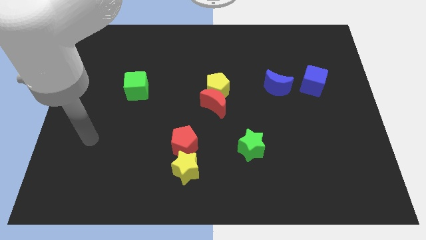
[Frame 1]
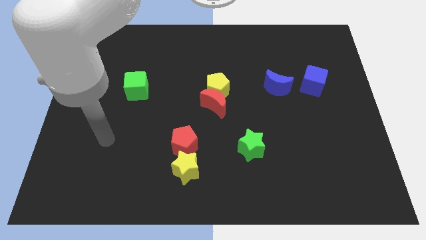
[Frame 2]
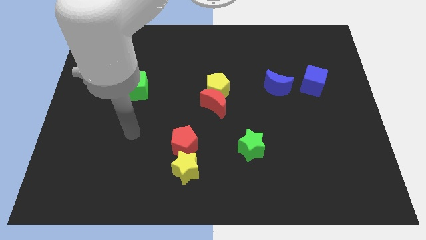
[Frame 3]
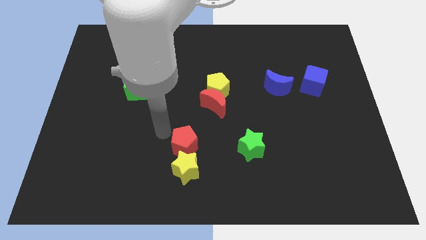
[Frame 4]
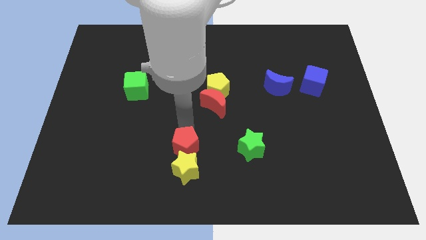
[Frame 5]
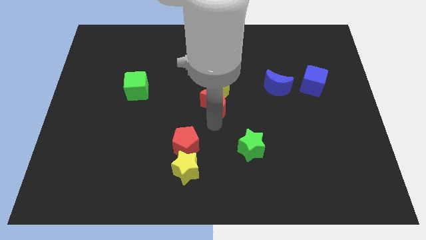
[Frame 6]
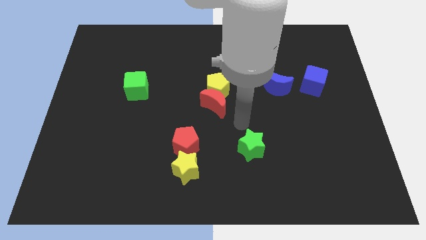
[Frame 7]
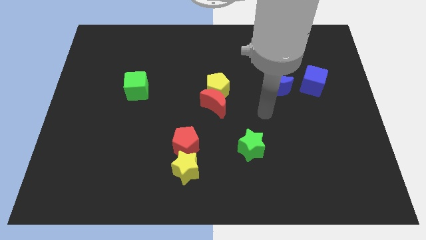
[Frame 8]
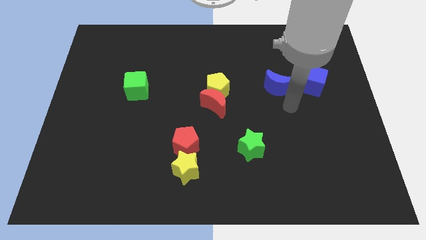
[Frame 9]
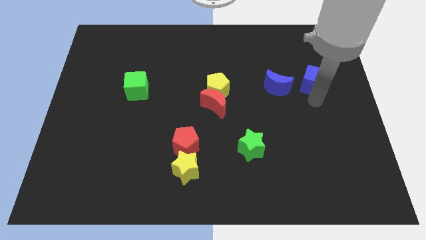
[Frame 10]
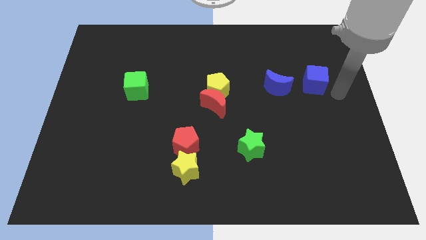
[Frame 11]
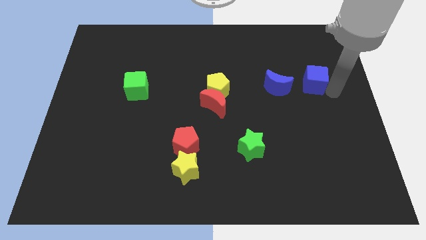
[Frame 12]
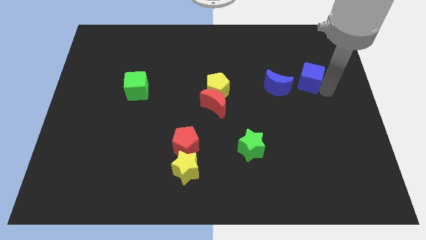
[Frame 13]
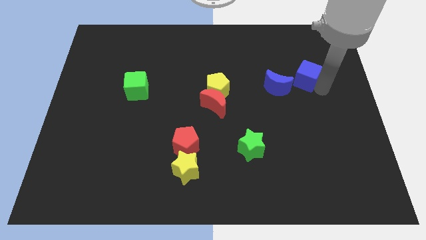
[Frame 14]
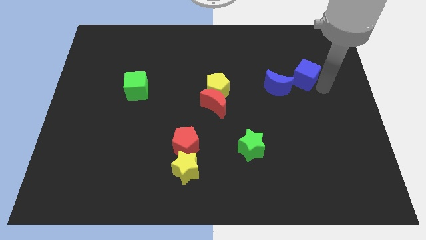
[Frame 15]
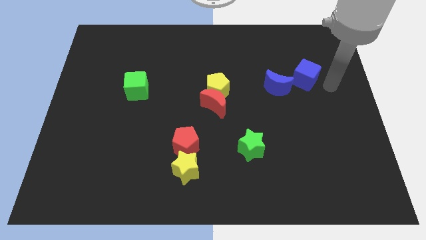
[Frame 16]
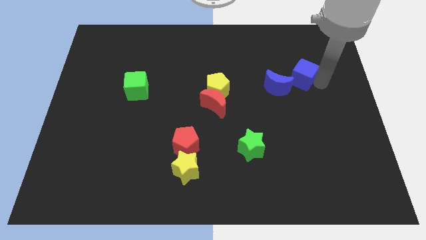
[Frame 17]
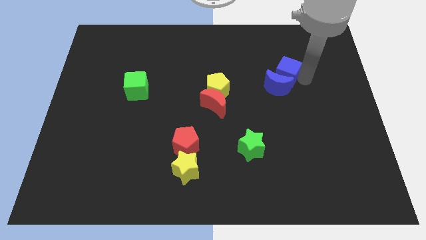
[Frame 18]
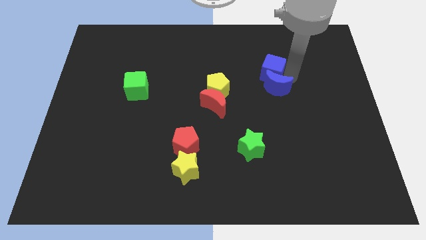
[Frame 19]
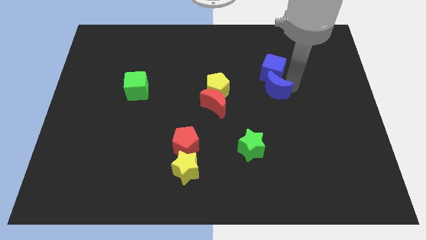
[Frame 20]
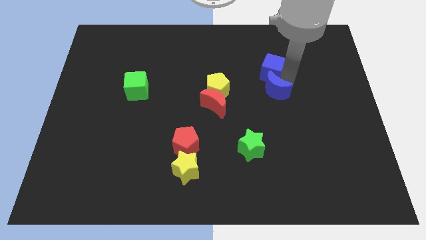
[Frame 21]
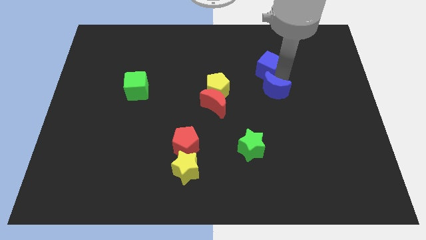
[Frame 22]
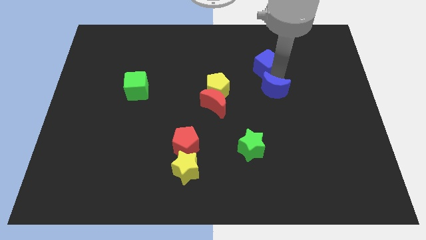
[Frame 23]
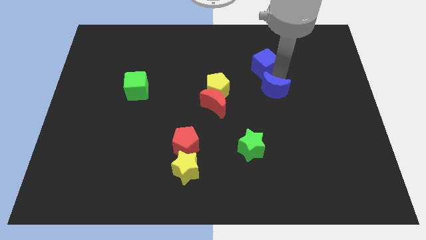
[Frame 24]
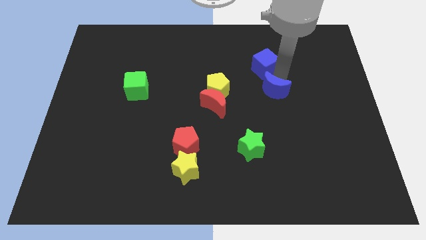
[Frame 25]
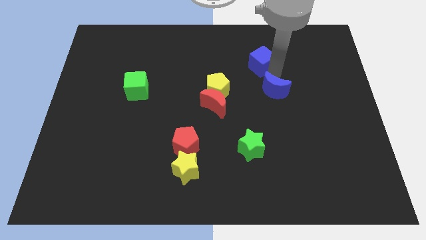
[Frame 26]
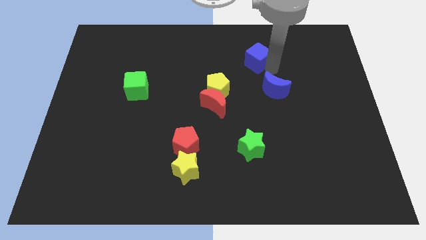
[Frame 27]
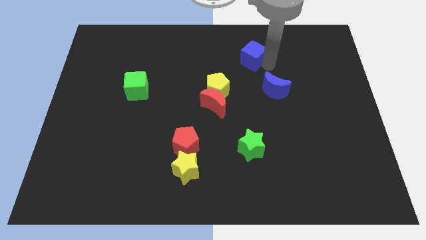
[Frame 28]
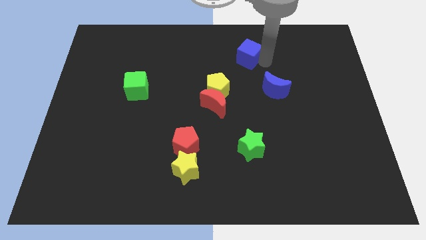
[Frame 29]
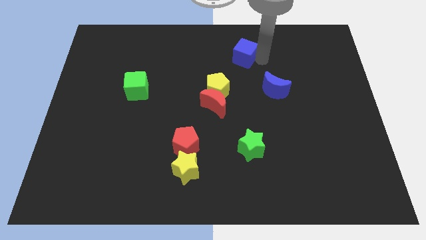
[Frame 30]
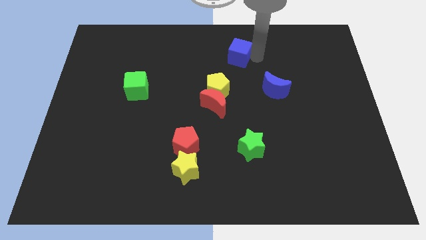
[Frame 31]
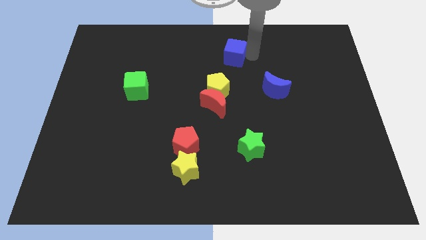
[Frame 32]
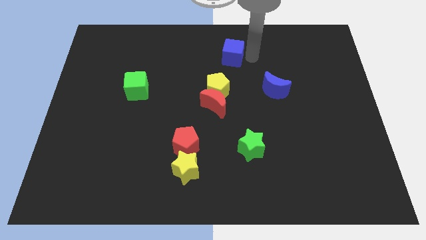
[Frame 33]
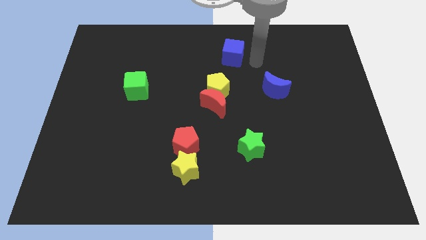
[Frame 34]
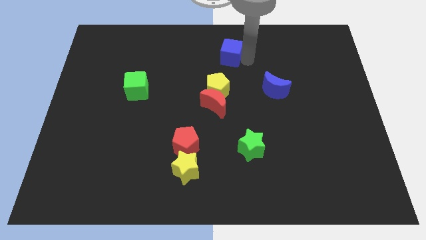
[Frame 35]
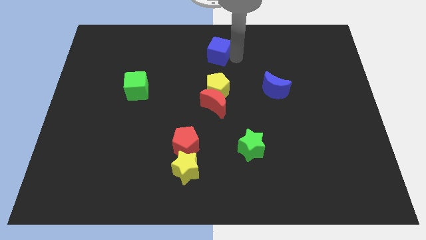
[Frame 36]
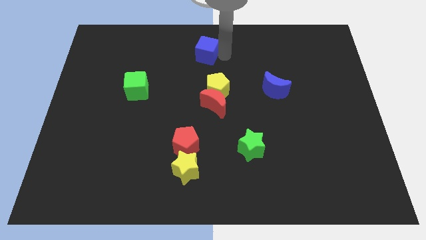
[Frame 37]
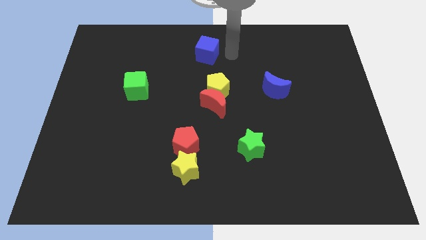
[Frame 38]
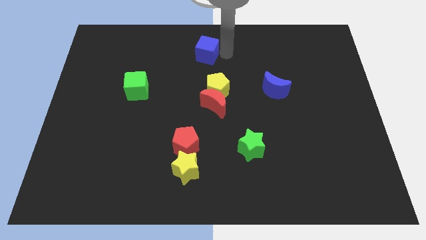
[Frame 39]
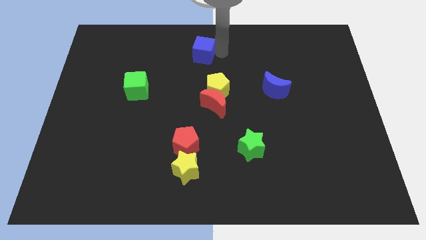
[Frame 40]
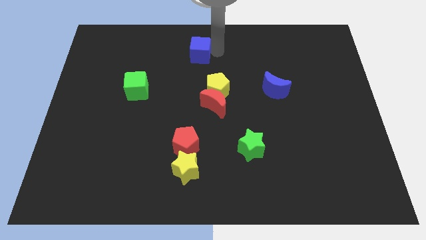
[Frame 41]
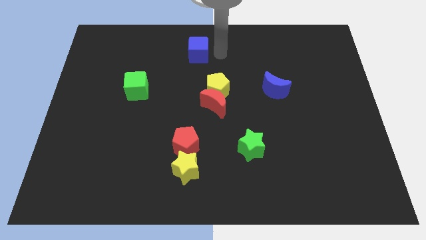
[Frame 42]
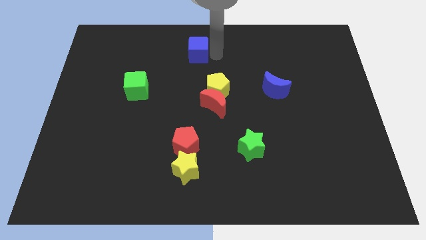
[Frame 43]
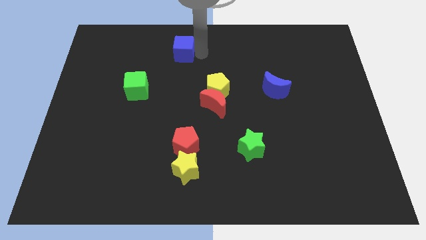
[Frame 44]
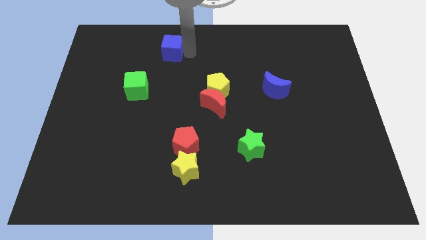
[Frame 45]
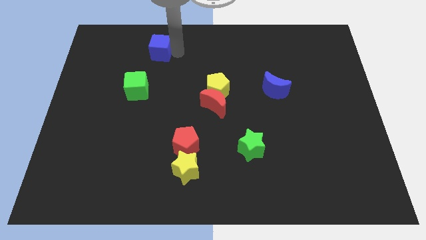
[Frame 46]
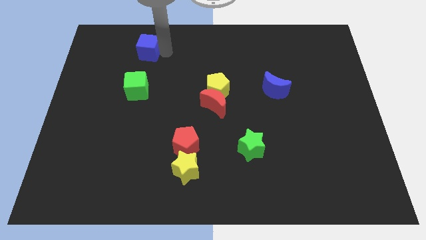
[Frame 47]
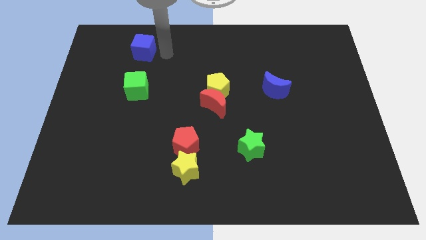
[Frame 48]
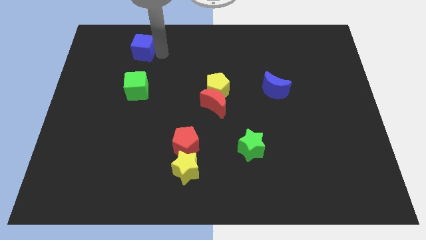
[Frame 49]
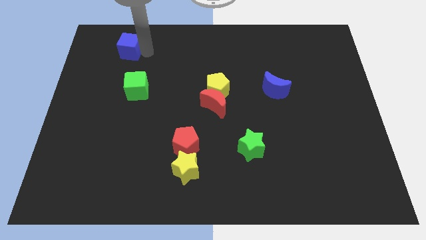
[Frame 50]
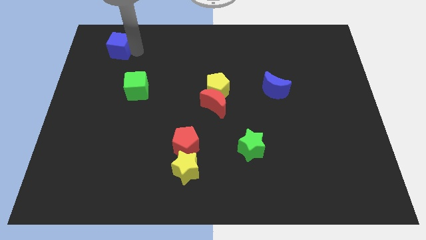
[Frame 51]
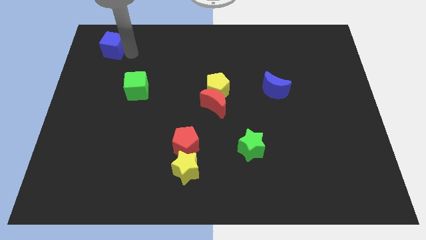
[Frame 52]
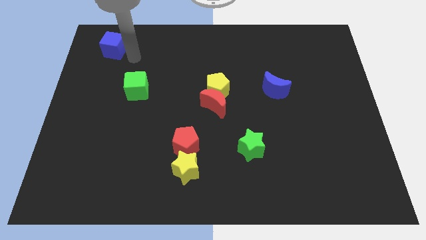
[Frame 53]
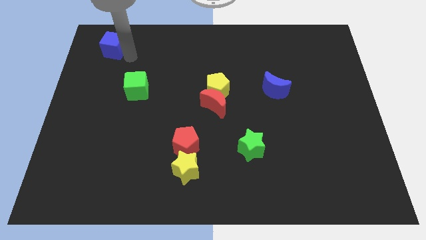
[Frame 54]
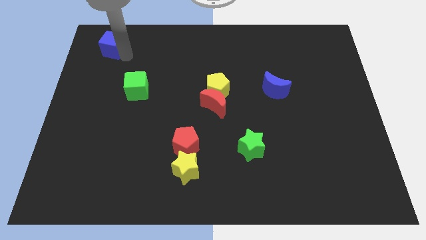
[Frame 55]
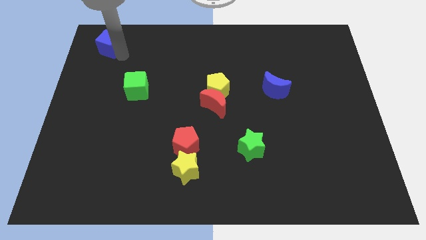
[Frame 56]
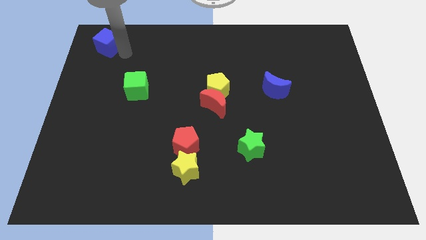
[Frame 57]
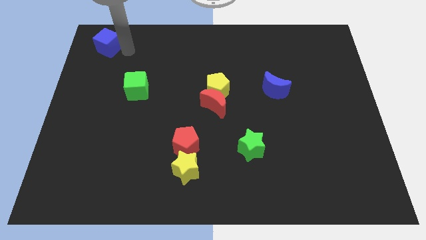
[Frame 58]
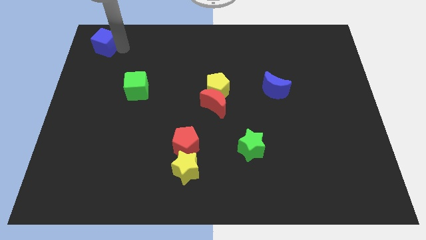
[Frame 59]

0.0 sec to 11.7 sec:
slide the blue cube to the top left
